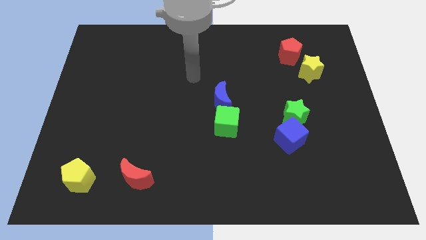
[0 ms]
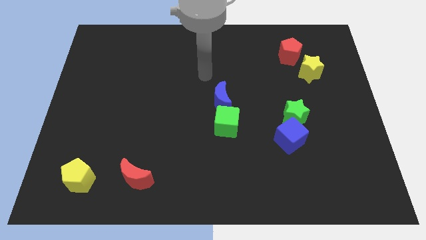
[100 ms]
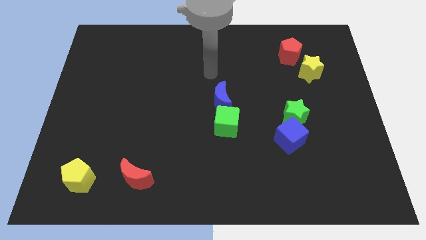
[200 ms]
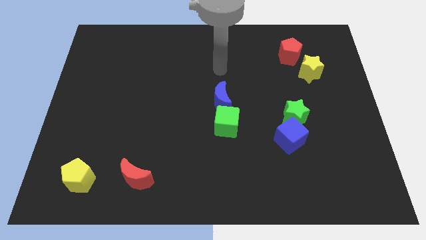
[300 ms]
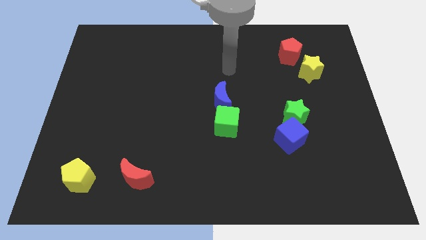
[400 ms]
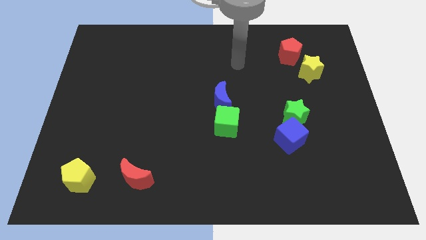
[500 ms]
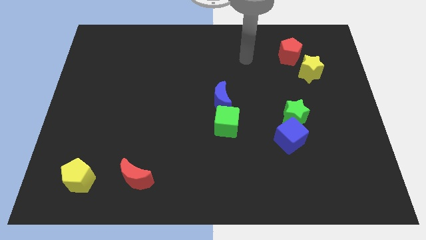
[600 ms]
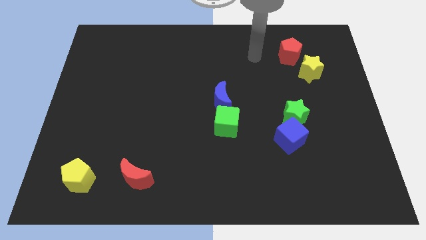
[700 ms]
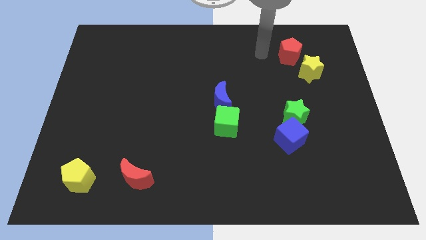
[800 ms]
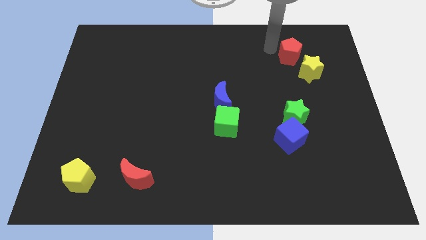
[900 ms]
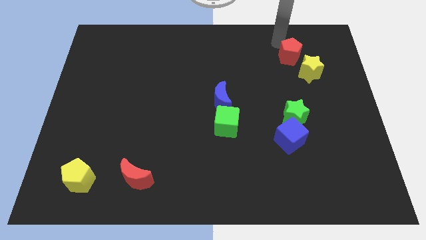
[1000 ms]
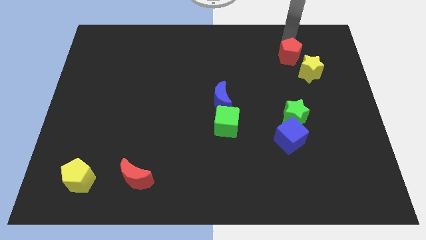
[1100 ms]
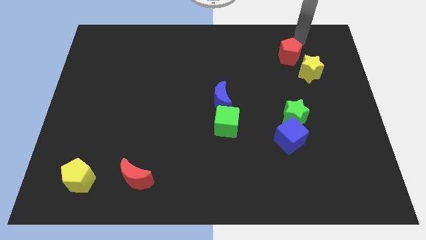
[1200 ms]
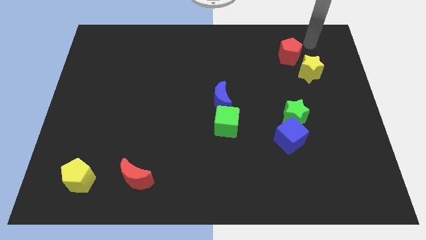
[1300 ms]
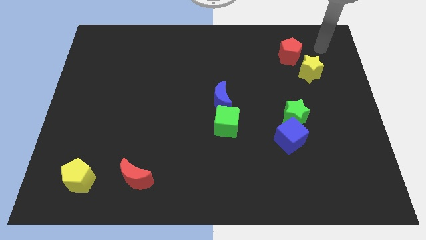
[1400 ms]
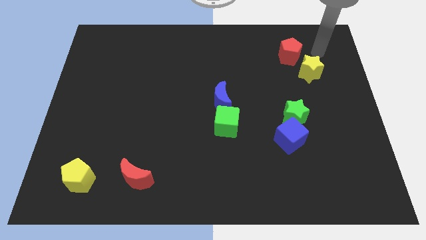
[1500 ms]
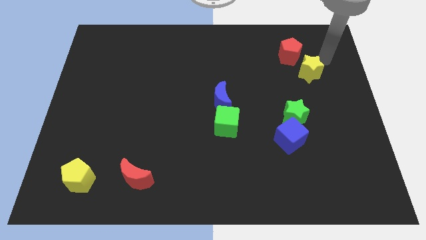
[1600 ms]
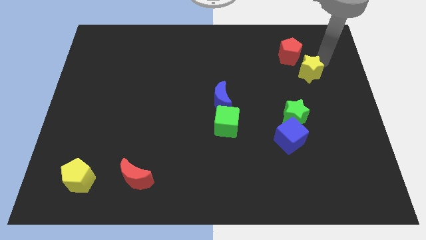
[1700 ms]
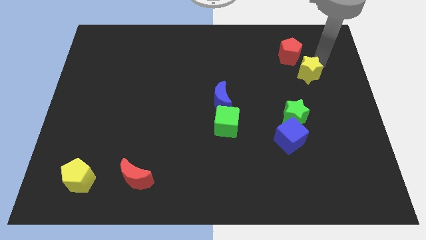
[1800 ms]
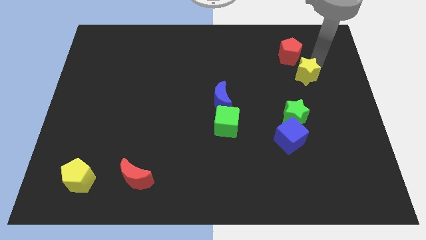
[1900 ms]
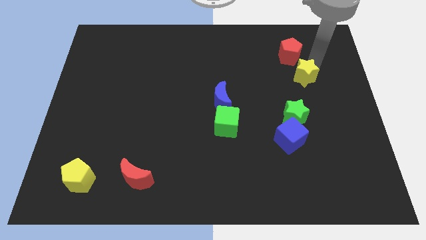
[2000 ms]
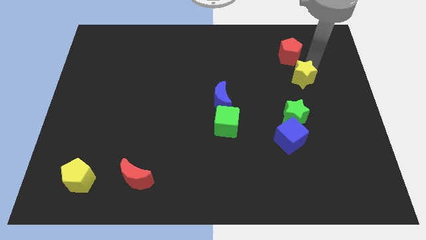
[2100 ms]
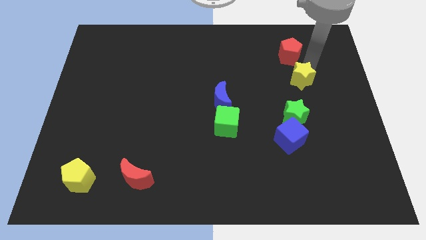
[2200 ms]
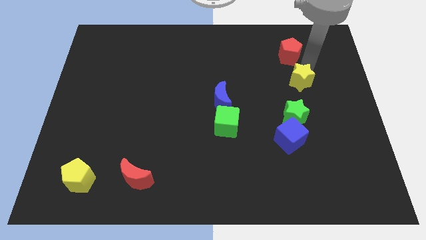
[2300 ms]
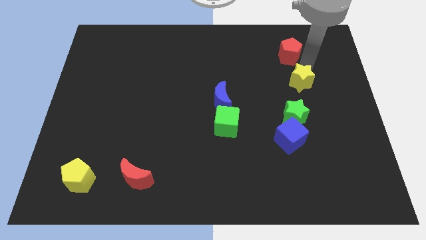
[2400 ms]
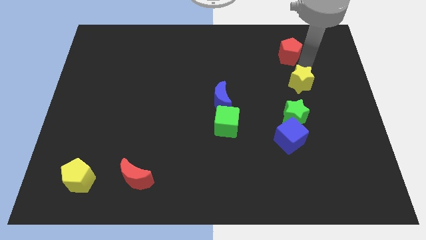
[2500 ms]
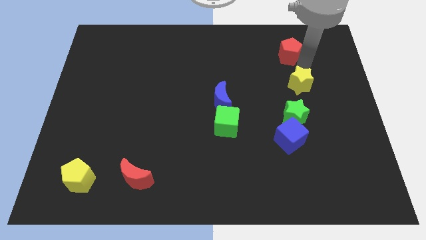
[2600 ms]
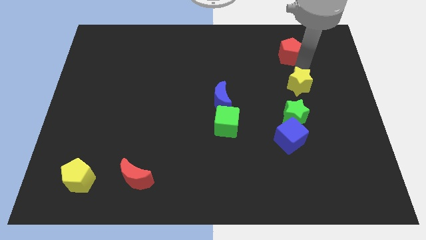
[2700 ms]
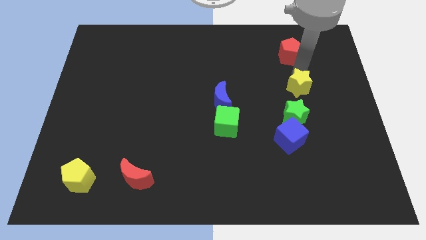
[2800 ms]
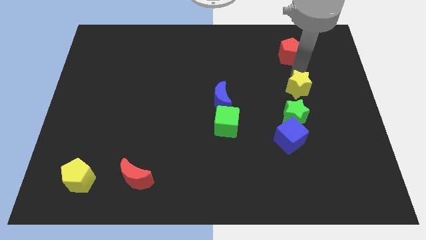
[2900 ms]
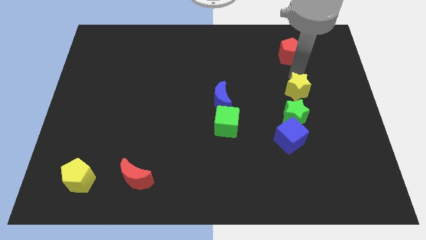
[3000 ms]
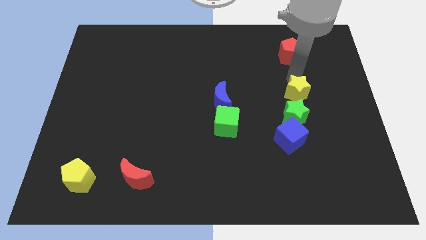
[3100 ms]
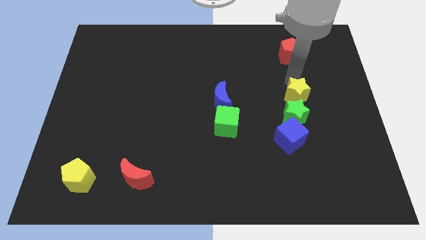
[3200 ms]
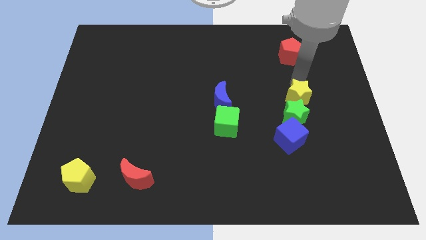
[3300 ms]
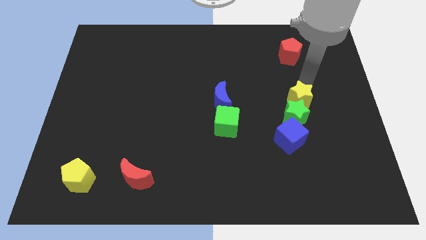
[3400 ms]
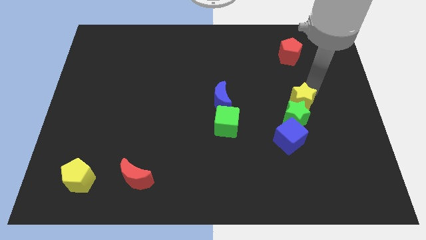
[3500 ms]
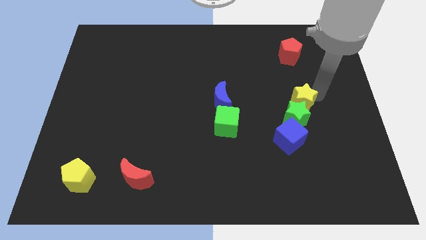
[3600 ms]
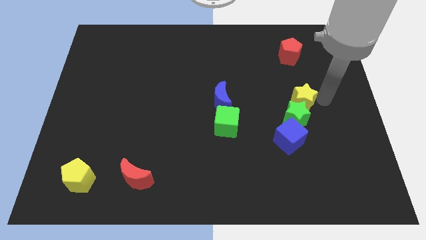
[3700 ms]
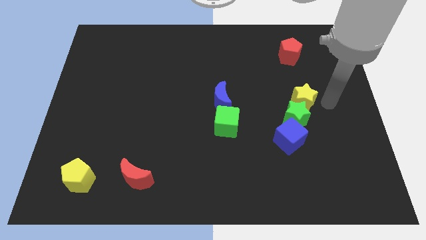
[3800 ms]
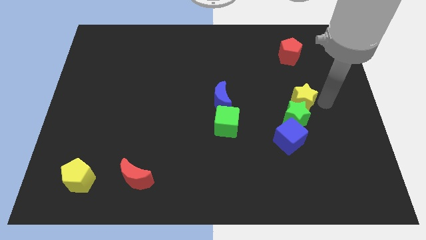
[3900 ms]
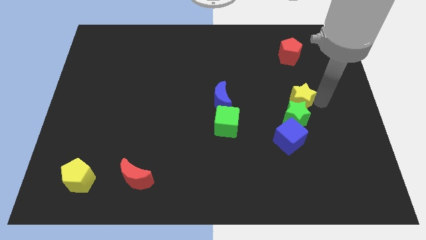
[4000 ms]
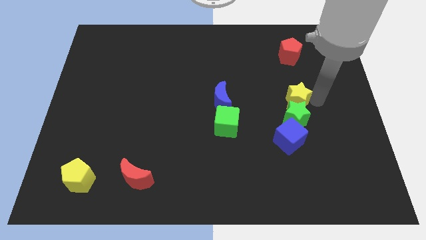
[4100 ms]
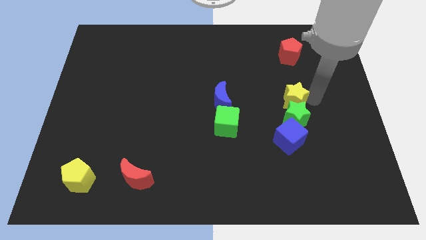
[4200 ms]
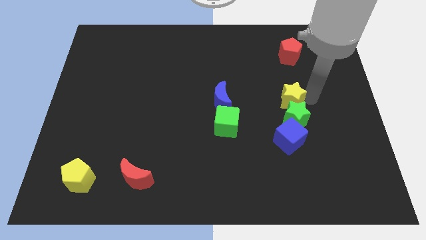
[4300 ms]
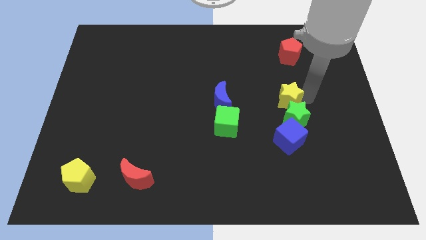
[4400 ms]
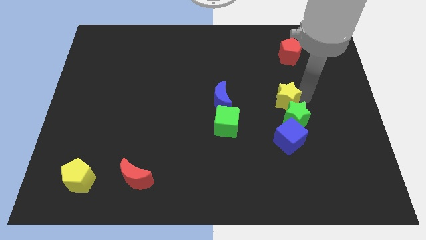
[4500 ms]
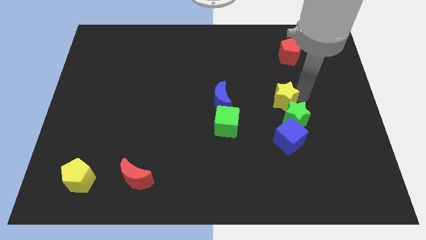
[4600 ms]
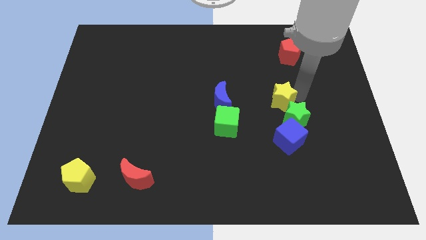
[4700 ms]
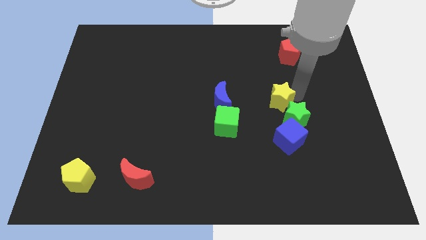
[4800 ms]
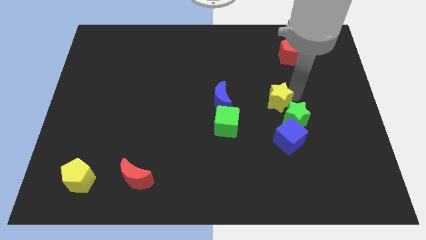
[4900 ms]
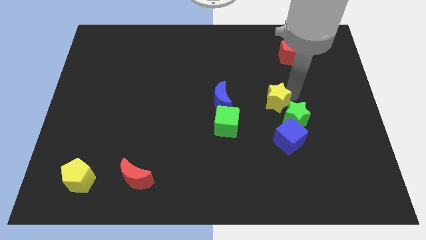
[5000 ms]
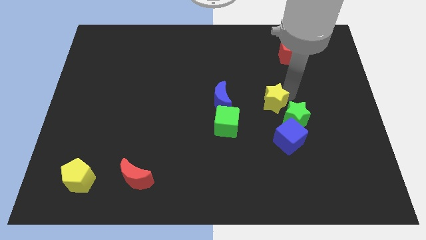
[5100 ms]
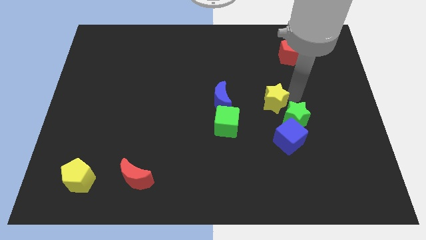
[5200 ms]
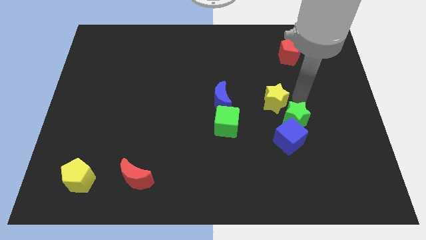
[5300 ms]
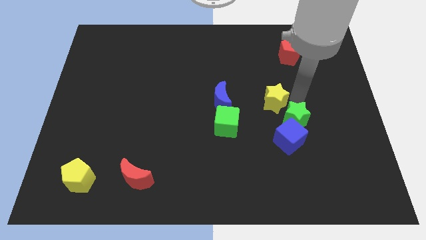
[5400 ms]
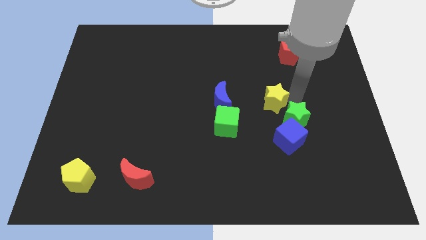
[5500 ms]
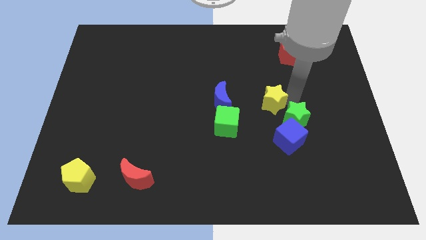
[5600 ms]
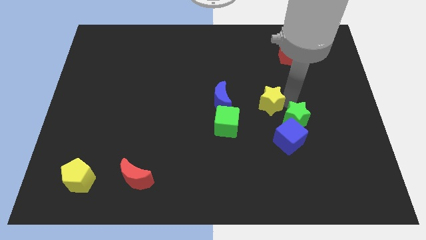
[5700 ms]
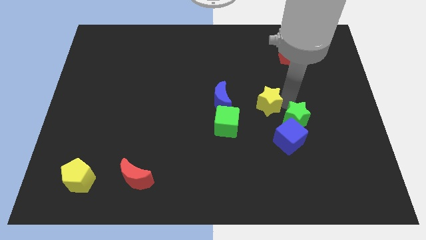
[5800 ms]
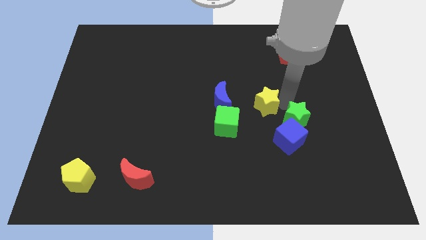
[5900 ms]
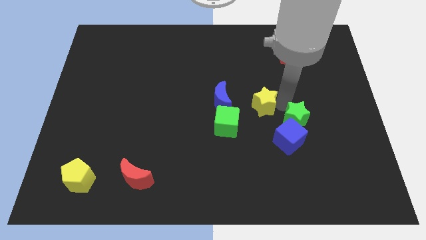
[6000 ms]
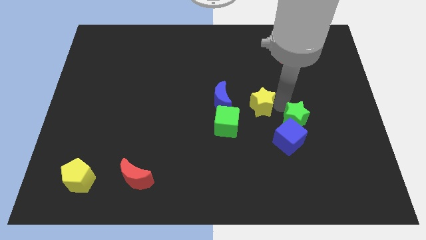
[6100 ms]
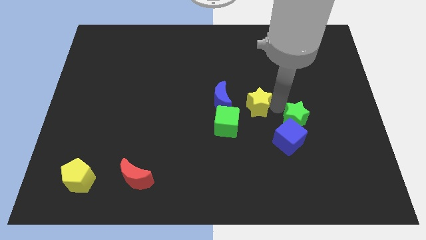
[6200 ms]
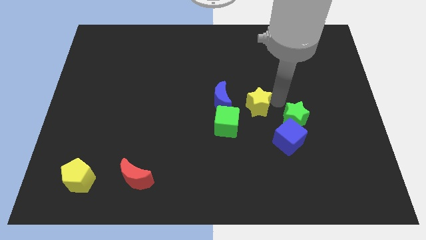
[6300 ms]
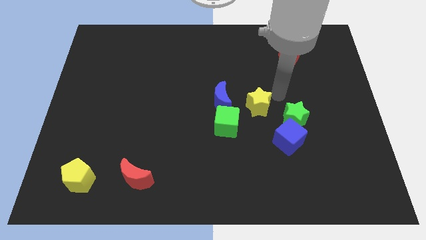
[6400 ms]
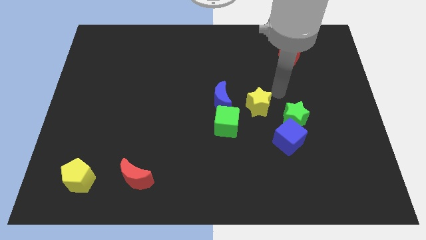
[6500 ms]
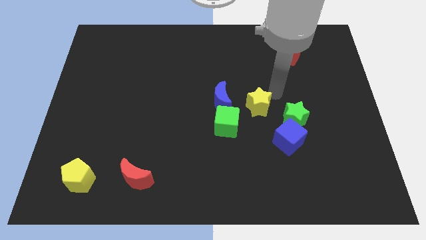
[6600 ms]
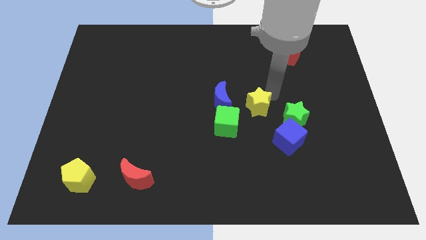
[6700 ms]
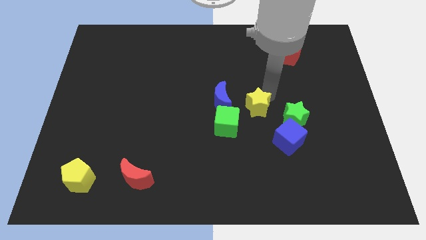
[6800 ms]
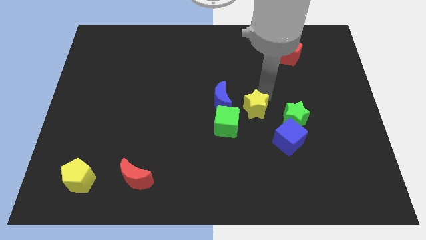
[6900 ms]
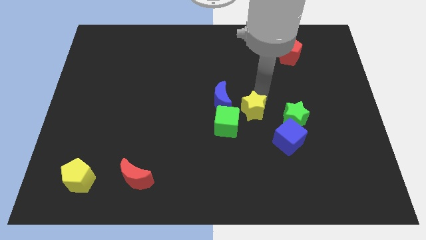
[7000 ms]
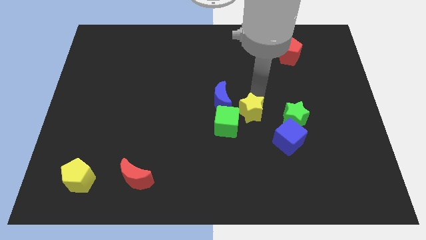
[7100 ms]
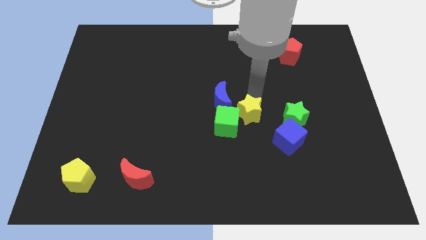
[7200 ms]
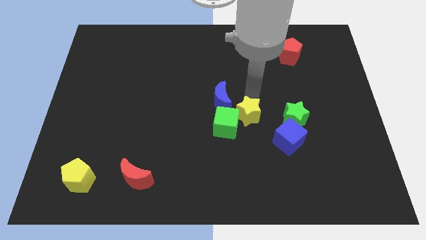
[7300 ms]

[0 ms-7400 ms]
move the yellow star towards the green cube
